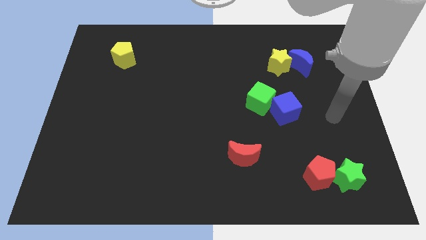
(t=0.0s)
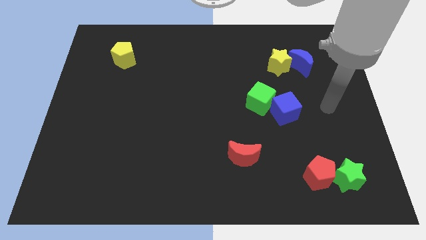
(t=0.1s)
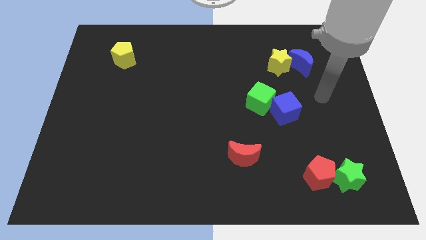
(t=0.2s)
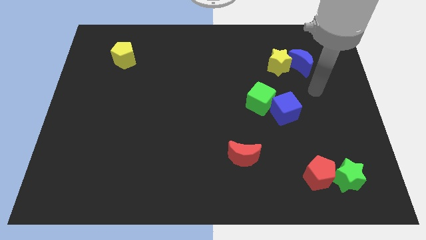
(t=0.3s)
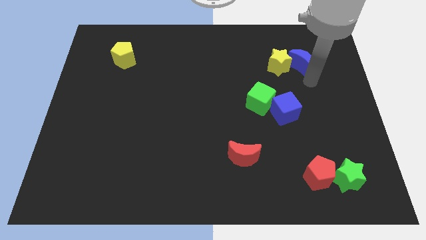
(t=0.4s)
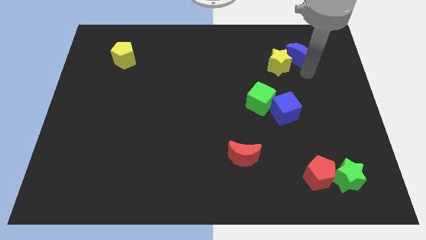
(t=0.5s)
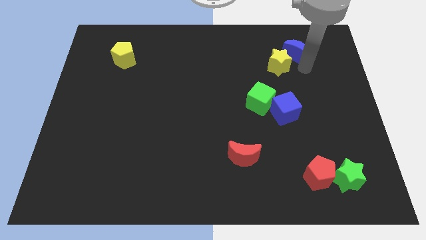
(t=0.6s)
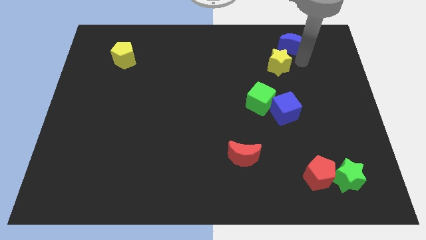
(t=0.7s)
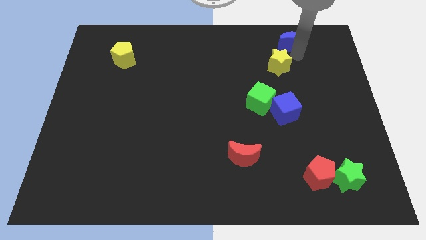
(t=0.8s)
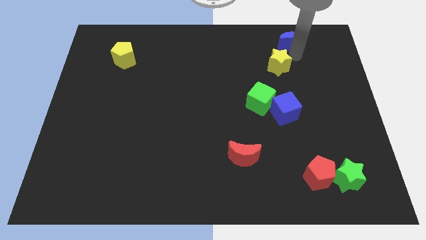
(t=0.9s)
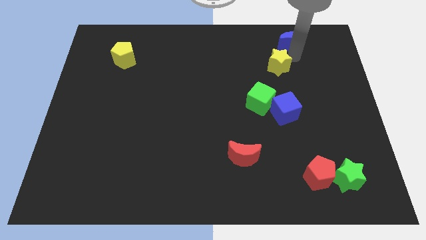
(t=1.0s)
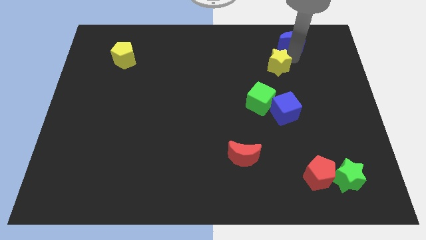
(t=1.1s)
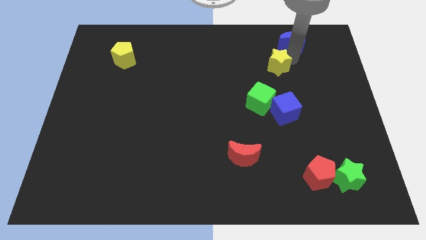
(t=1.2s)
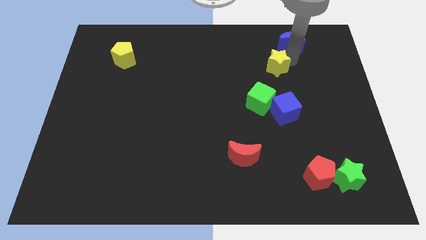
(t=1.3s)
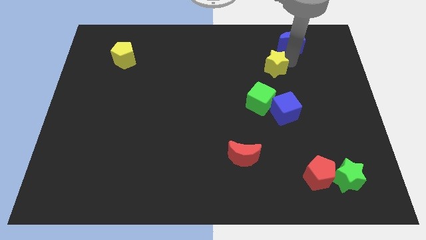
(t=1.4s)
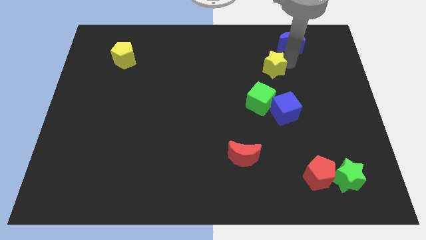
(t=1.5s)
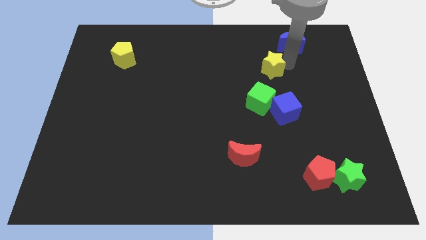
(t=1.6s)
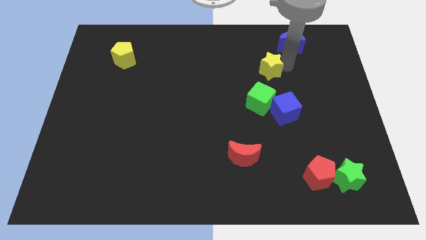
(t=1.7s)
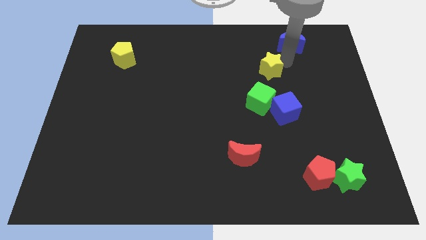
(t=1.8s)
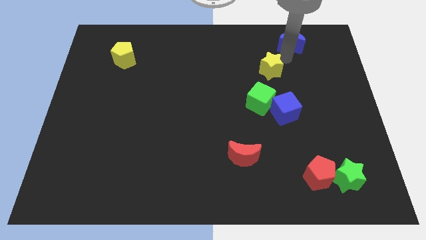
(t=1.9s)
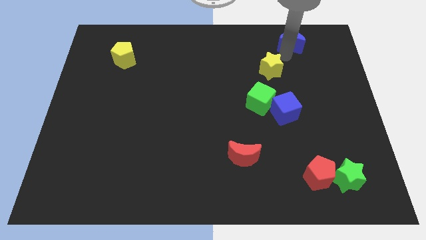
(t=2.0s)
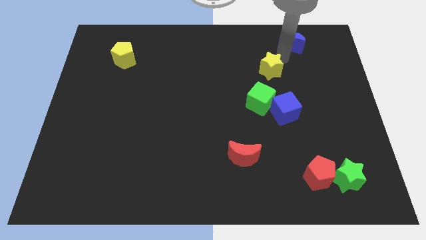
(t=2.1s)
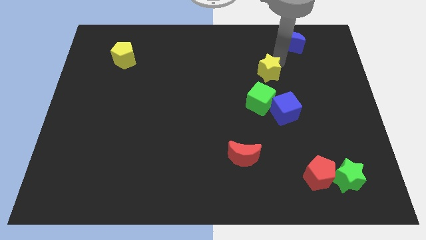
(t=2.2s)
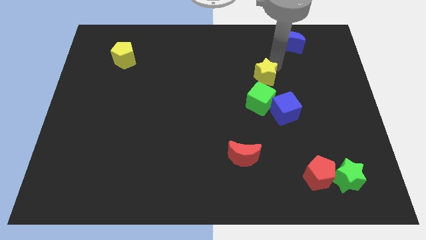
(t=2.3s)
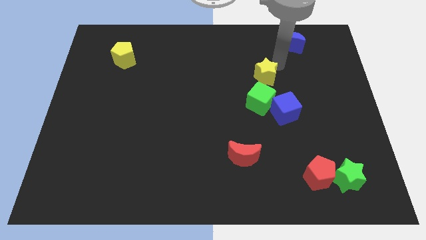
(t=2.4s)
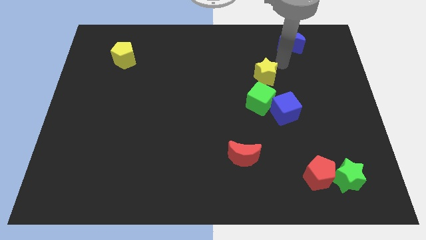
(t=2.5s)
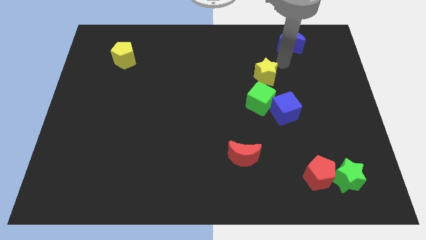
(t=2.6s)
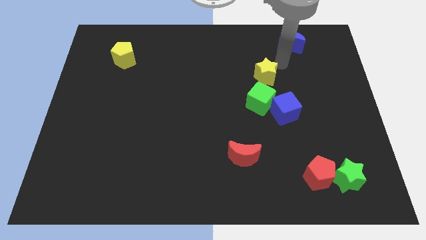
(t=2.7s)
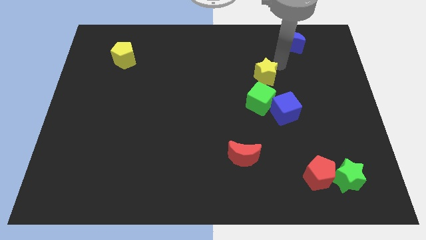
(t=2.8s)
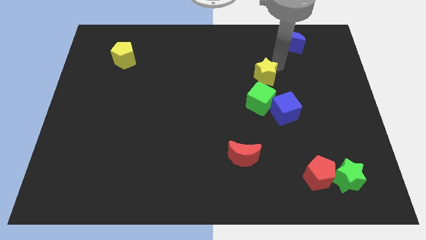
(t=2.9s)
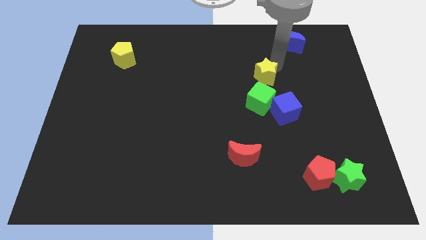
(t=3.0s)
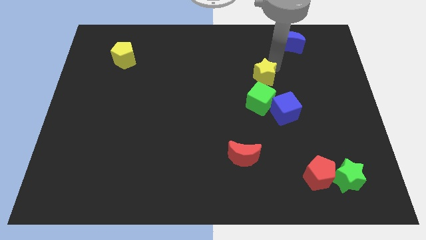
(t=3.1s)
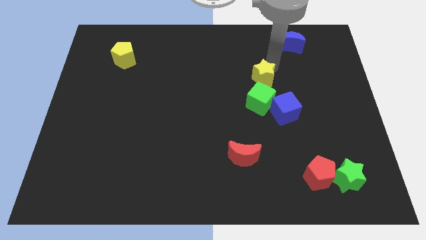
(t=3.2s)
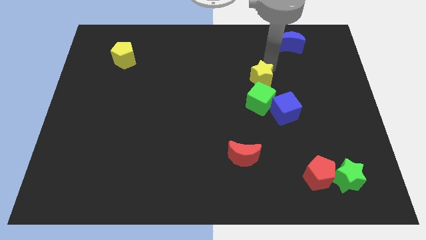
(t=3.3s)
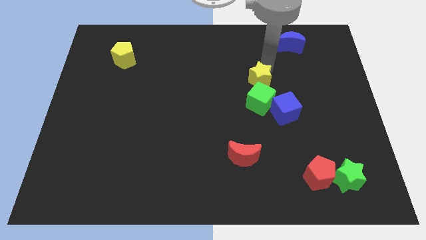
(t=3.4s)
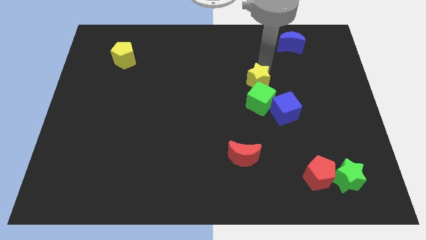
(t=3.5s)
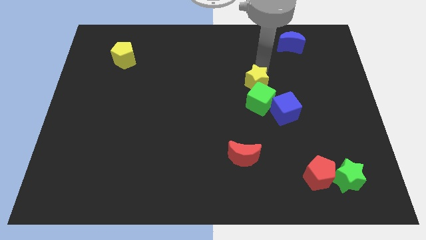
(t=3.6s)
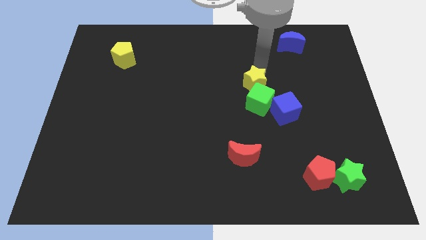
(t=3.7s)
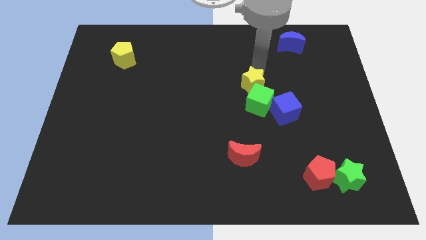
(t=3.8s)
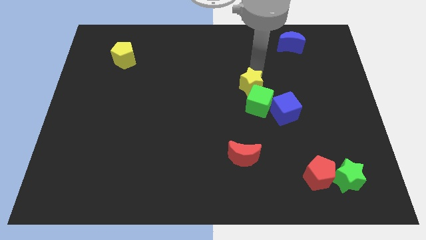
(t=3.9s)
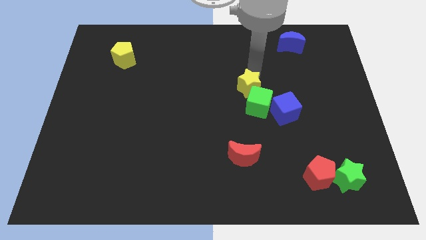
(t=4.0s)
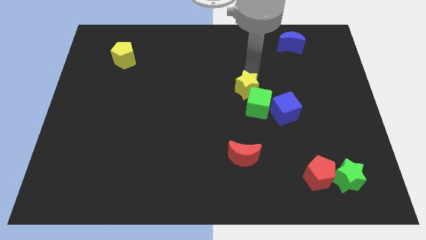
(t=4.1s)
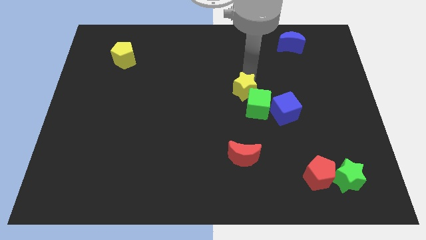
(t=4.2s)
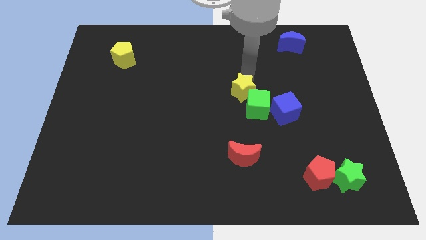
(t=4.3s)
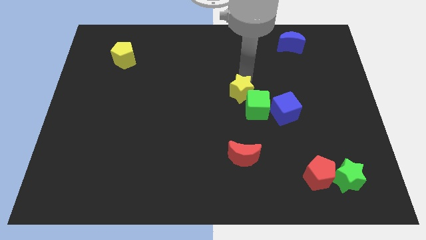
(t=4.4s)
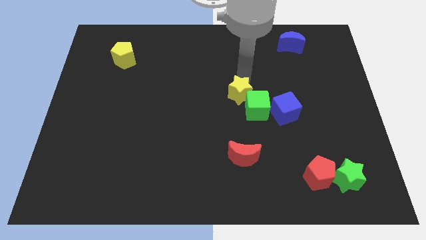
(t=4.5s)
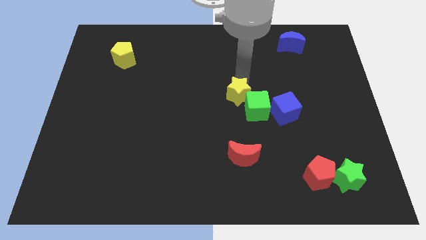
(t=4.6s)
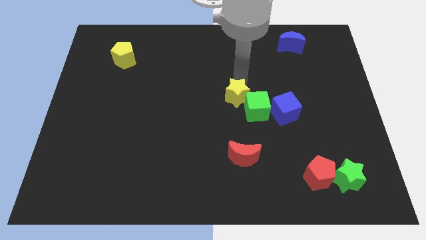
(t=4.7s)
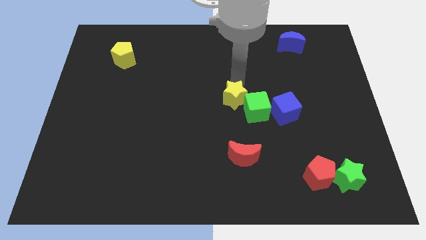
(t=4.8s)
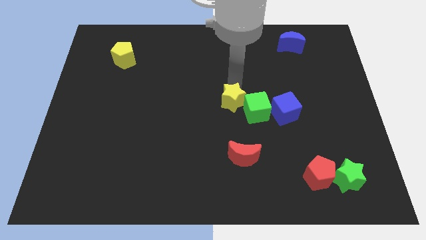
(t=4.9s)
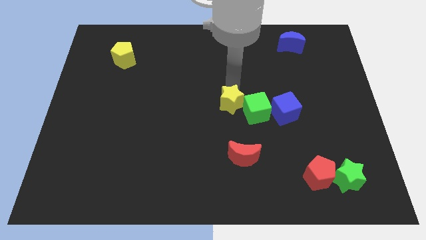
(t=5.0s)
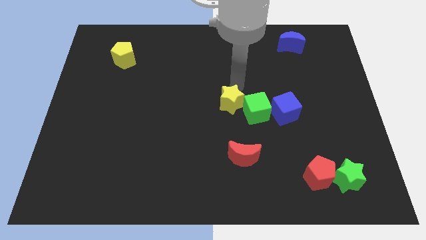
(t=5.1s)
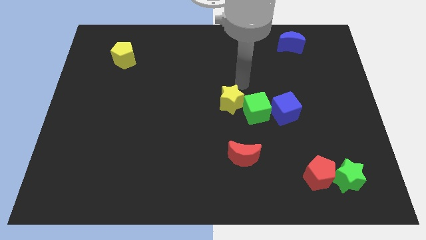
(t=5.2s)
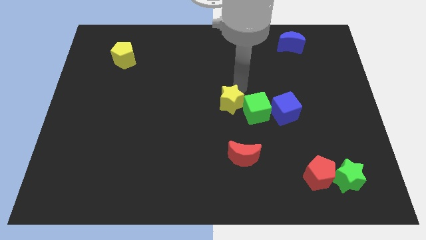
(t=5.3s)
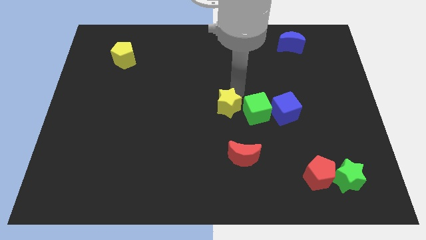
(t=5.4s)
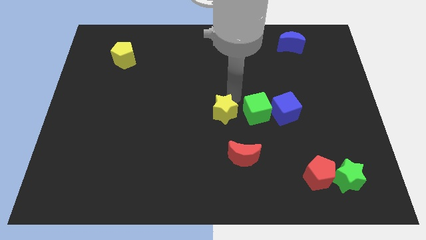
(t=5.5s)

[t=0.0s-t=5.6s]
move the yellow star down and then to the left

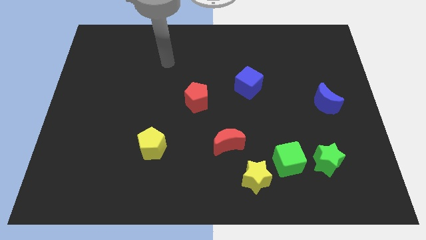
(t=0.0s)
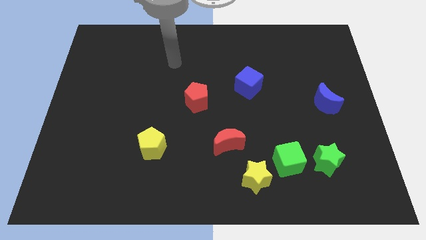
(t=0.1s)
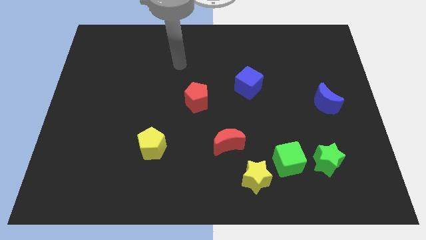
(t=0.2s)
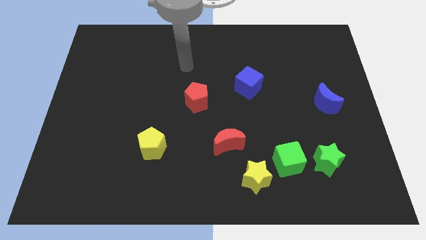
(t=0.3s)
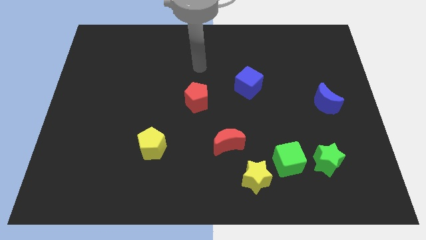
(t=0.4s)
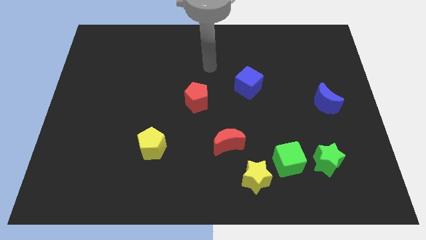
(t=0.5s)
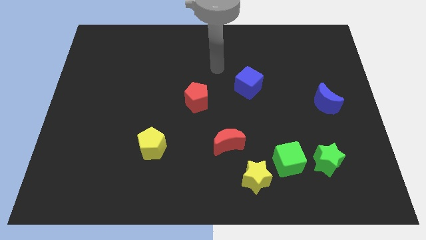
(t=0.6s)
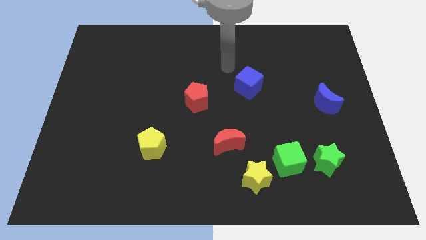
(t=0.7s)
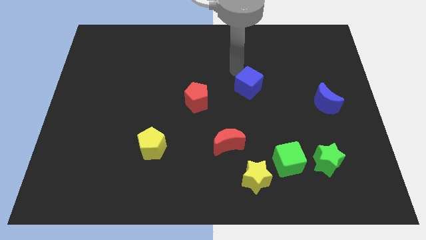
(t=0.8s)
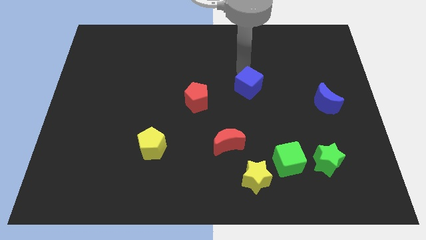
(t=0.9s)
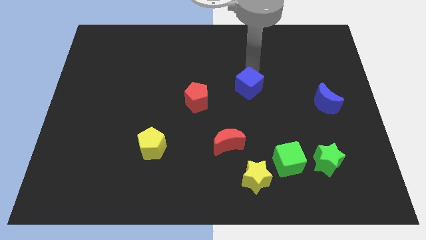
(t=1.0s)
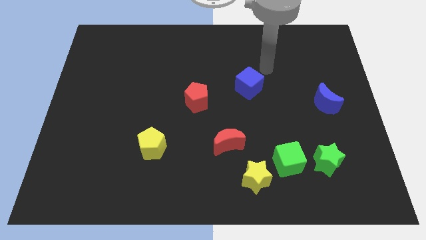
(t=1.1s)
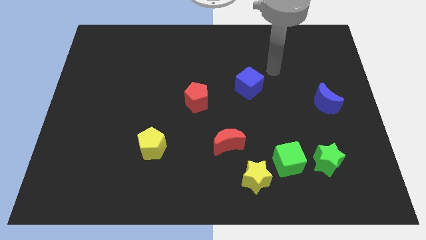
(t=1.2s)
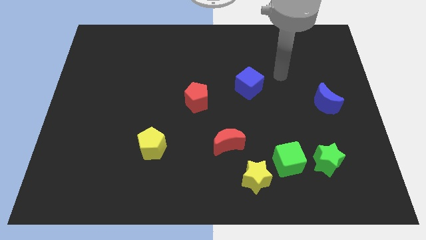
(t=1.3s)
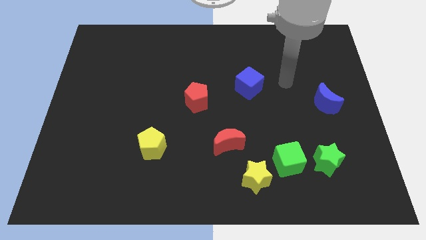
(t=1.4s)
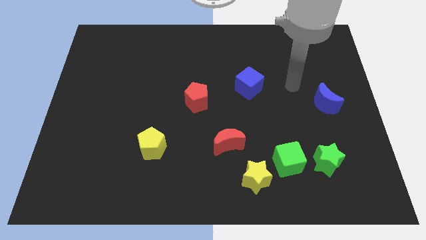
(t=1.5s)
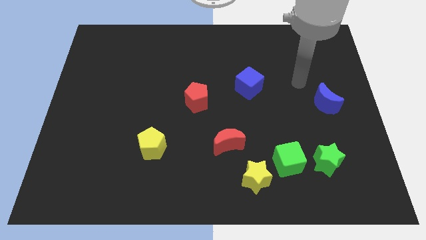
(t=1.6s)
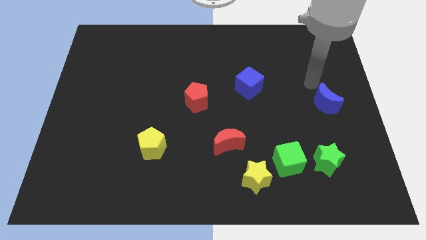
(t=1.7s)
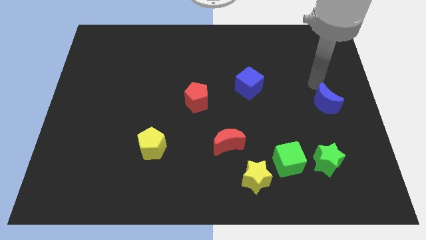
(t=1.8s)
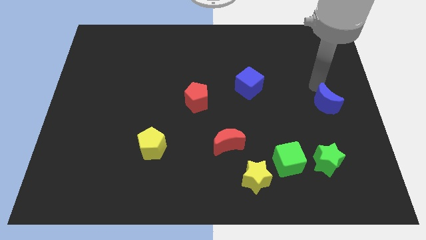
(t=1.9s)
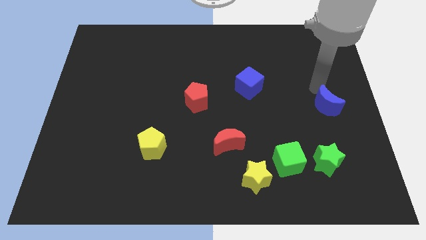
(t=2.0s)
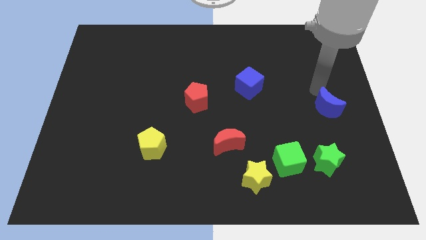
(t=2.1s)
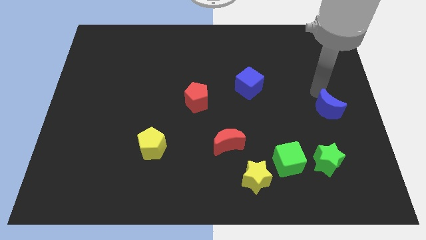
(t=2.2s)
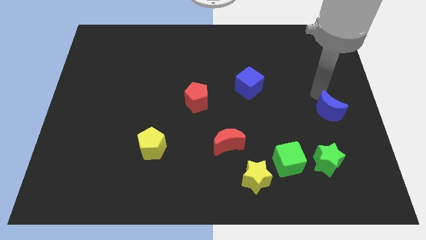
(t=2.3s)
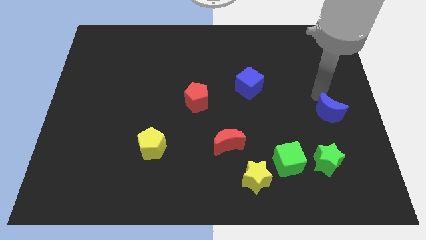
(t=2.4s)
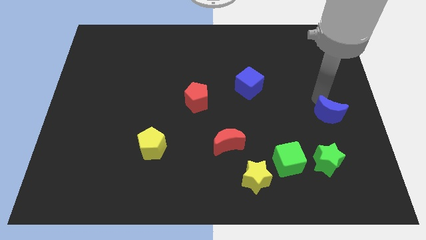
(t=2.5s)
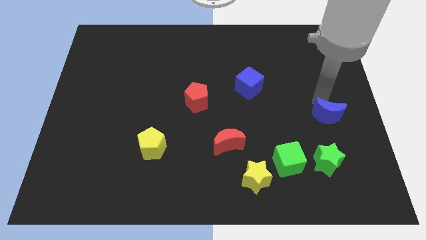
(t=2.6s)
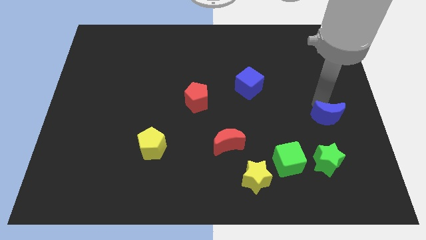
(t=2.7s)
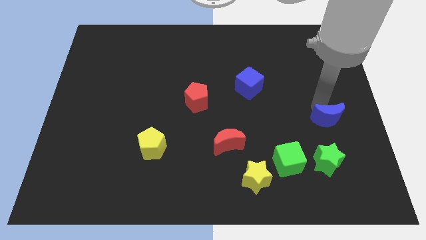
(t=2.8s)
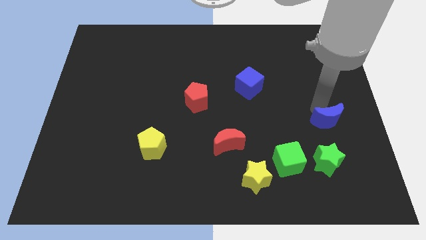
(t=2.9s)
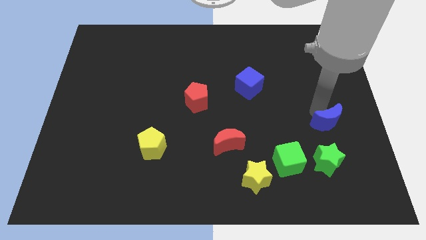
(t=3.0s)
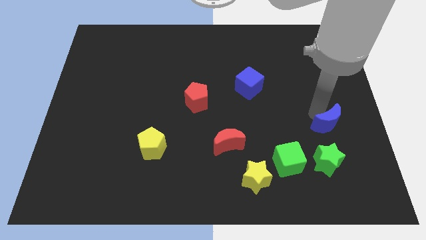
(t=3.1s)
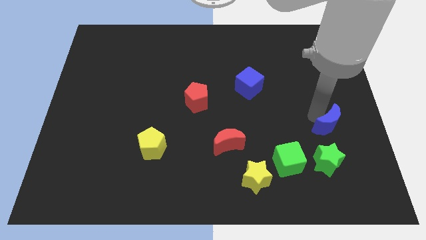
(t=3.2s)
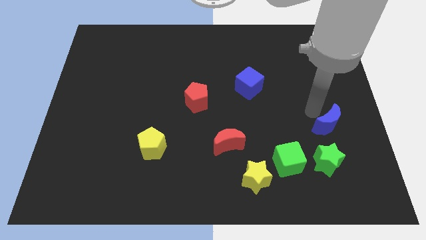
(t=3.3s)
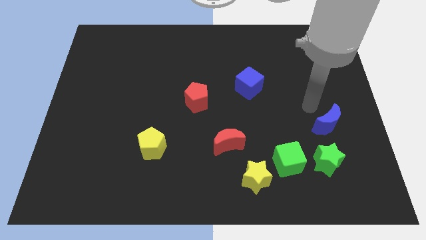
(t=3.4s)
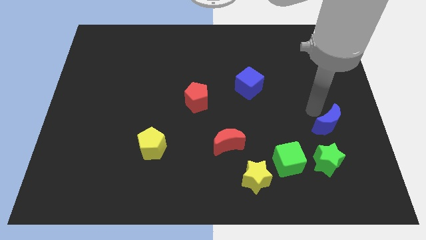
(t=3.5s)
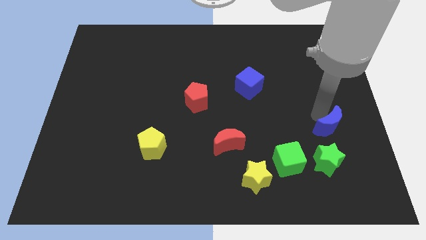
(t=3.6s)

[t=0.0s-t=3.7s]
slide the blue moon down a little
